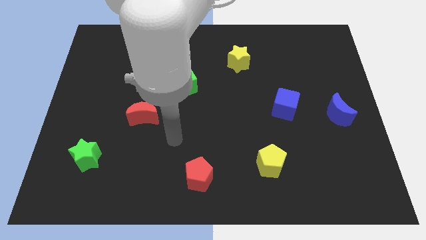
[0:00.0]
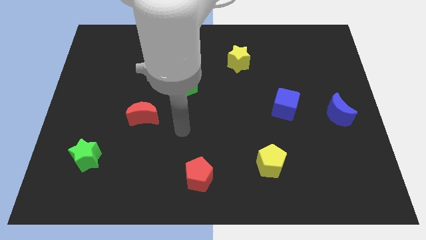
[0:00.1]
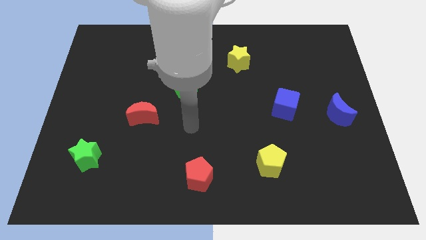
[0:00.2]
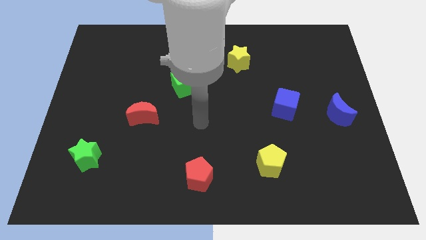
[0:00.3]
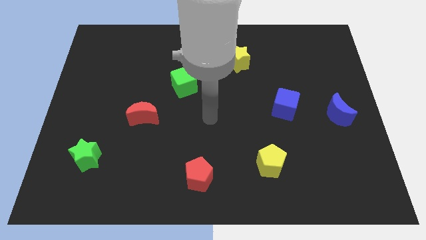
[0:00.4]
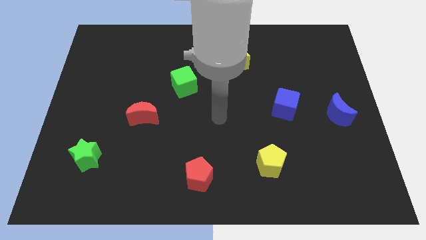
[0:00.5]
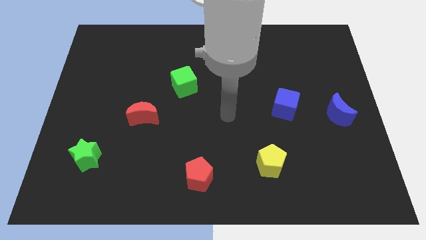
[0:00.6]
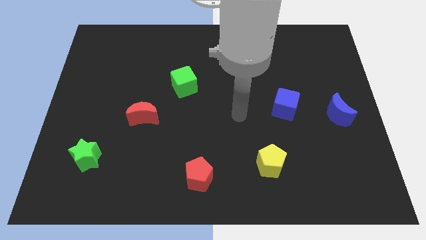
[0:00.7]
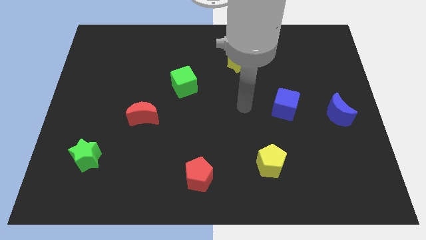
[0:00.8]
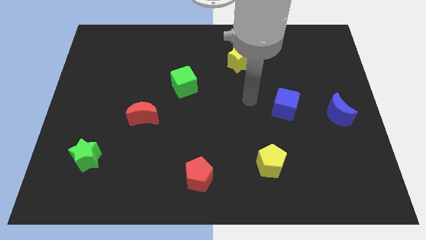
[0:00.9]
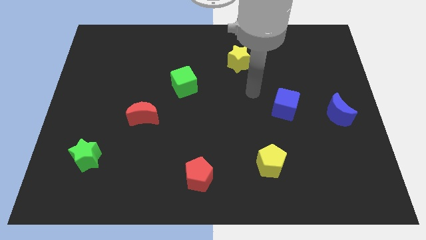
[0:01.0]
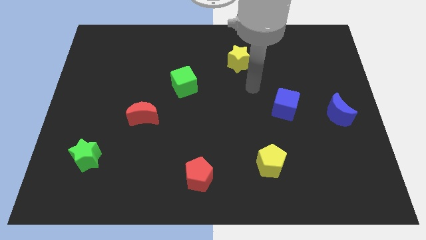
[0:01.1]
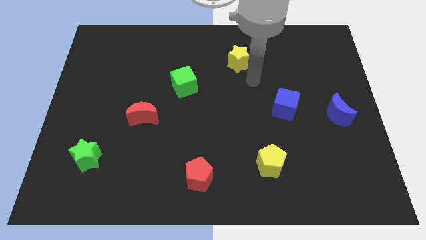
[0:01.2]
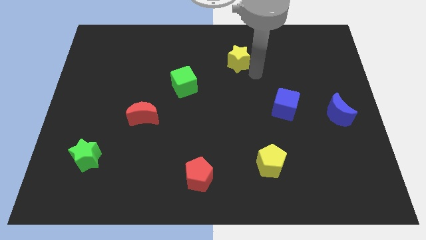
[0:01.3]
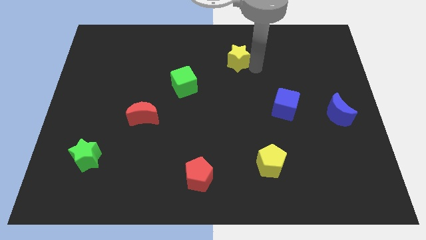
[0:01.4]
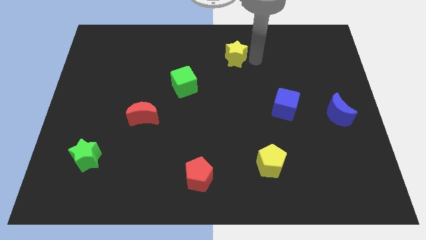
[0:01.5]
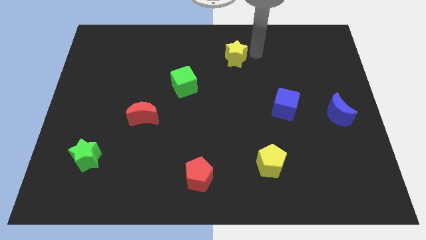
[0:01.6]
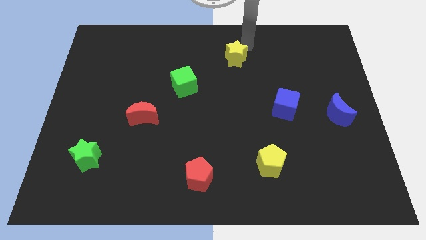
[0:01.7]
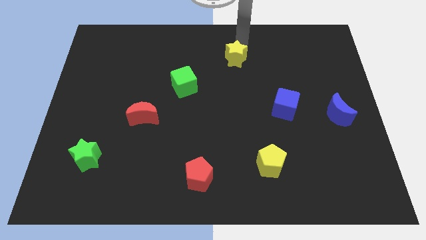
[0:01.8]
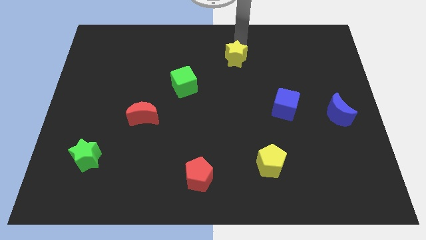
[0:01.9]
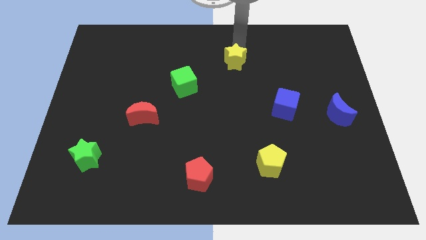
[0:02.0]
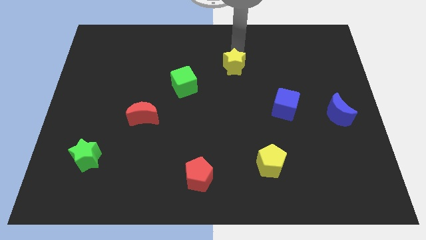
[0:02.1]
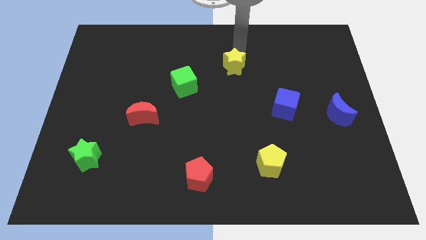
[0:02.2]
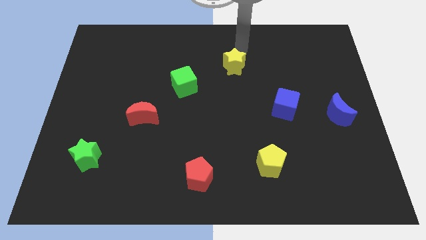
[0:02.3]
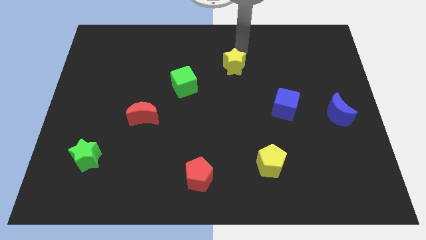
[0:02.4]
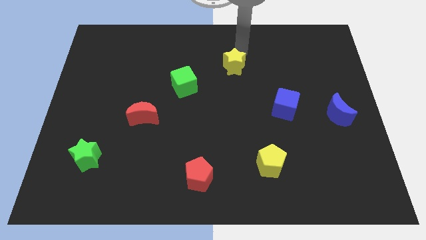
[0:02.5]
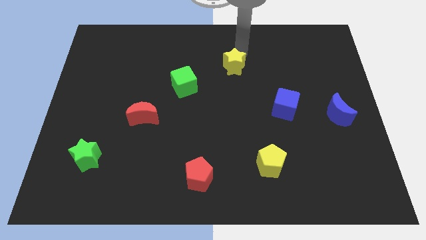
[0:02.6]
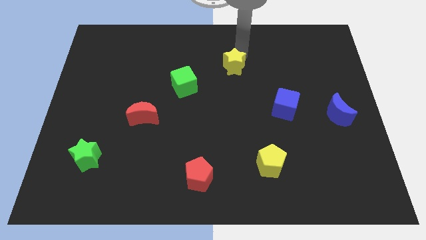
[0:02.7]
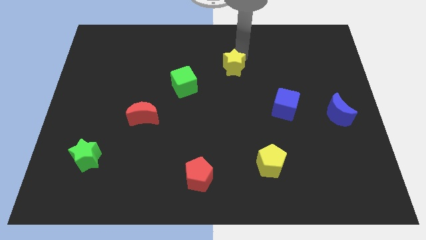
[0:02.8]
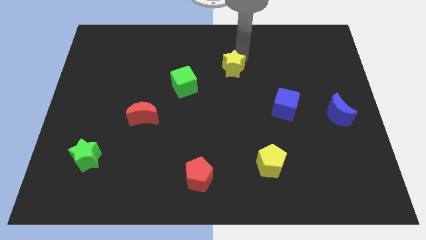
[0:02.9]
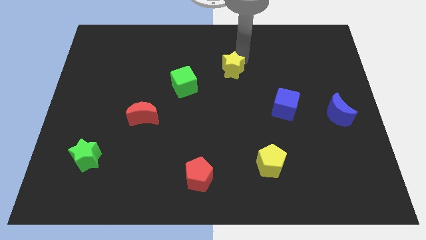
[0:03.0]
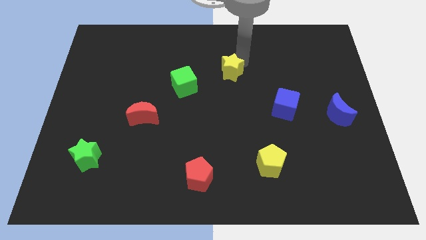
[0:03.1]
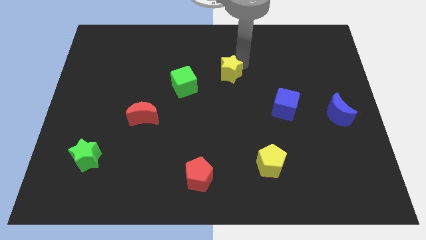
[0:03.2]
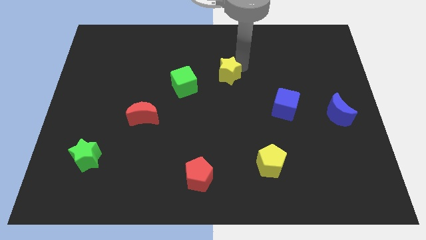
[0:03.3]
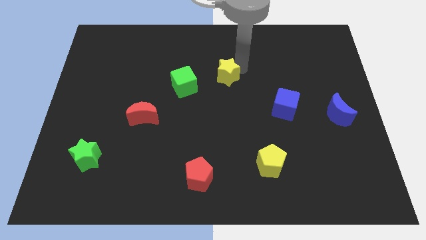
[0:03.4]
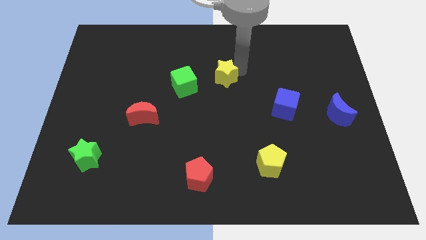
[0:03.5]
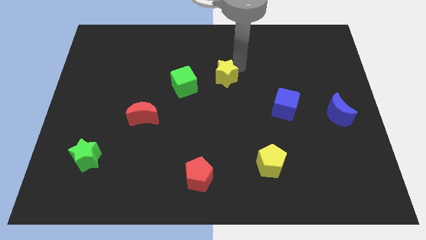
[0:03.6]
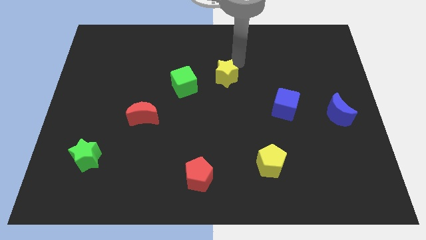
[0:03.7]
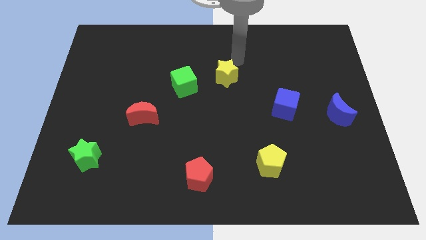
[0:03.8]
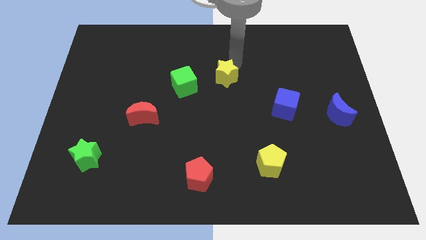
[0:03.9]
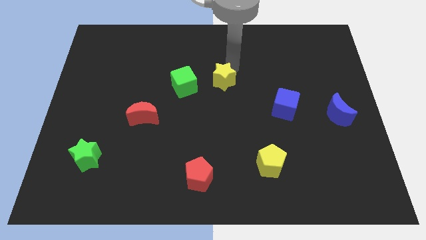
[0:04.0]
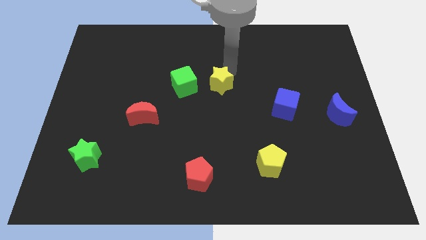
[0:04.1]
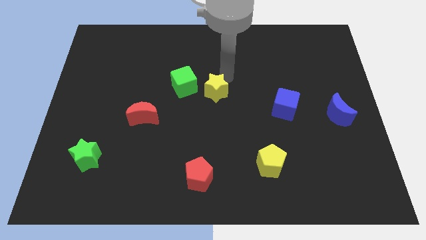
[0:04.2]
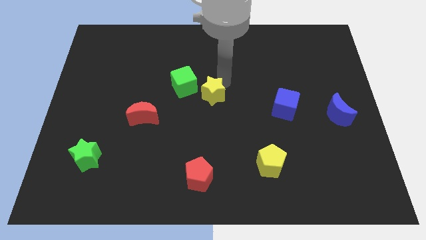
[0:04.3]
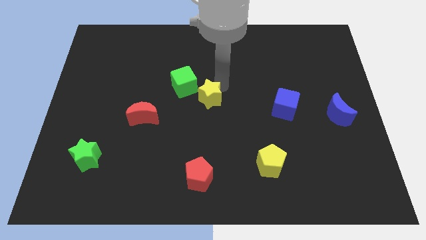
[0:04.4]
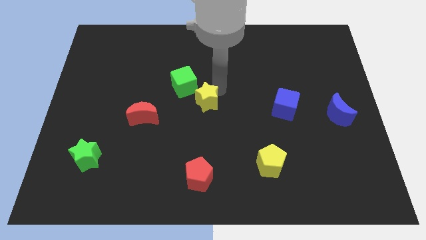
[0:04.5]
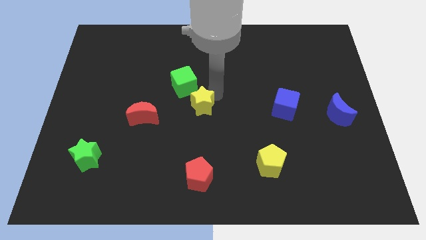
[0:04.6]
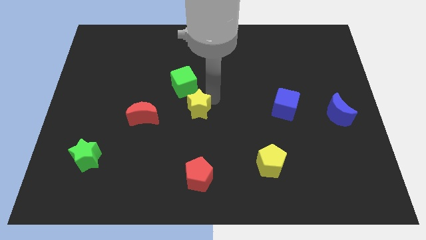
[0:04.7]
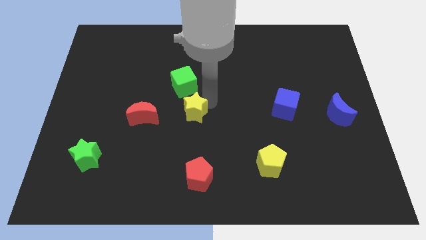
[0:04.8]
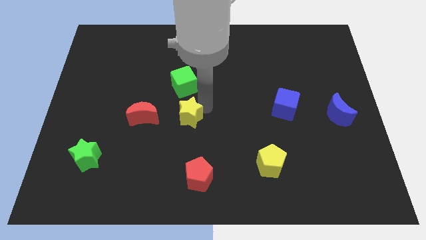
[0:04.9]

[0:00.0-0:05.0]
push the yellow star down and then to the left

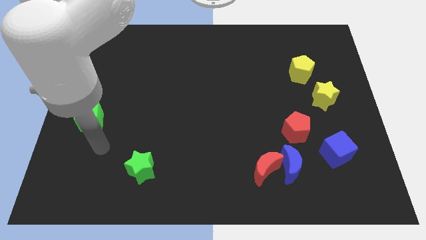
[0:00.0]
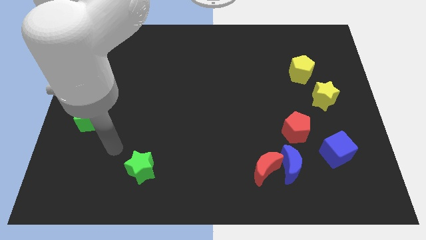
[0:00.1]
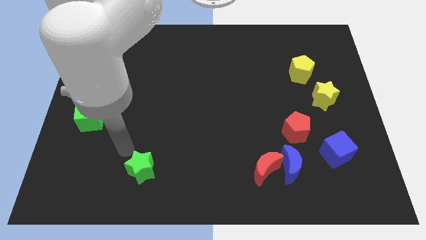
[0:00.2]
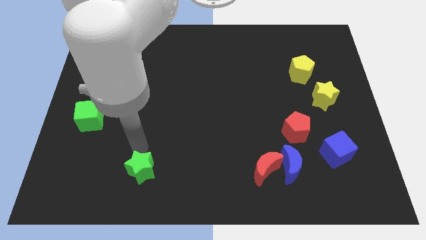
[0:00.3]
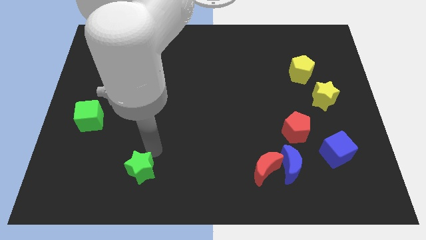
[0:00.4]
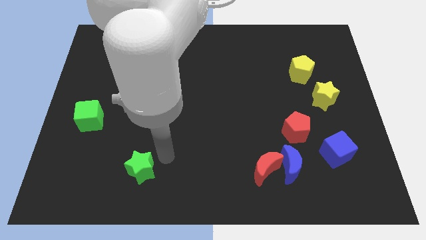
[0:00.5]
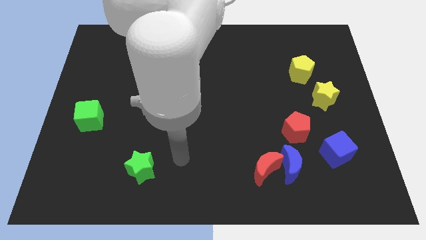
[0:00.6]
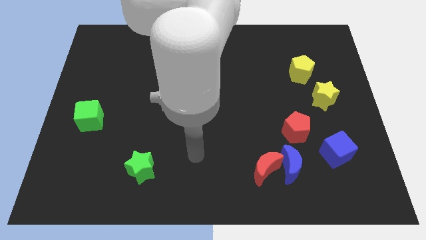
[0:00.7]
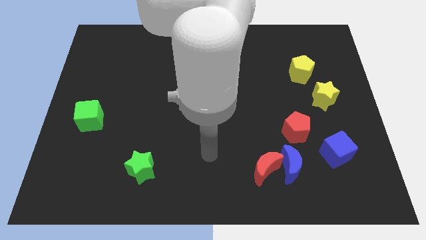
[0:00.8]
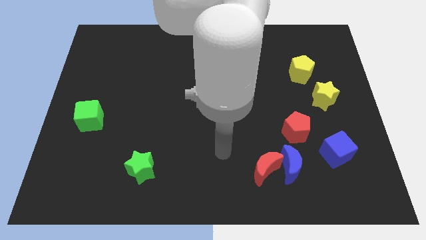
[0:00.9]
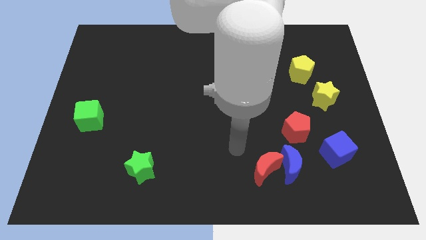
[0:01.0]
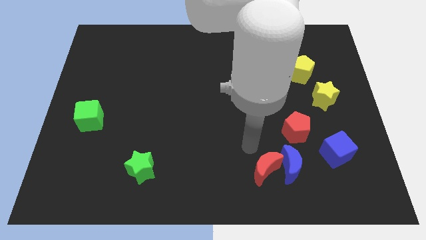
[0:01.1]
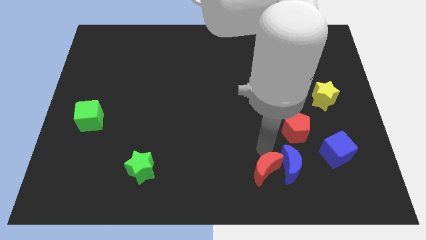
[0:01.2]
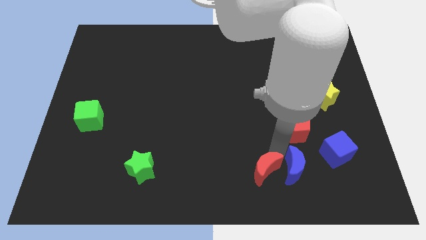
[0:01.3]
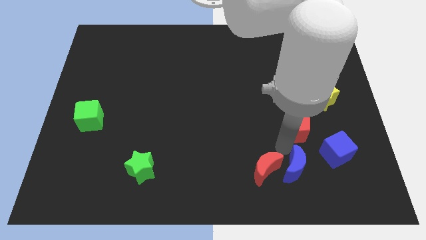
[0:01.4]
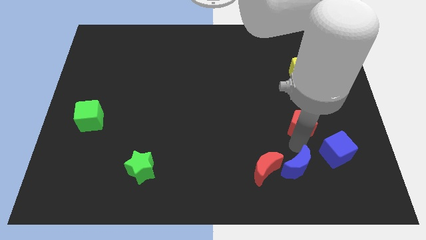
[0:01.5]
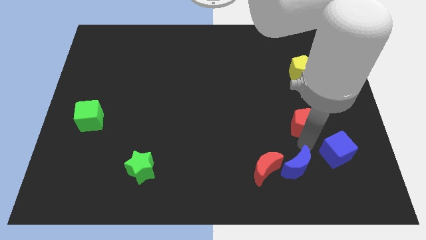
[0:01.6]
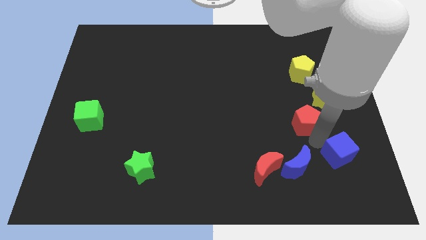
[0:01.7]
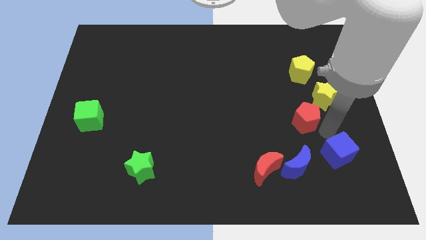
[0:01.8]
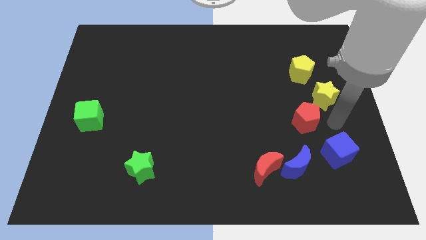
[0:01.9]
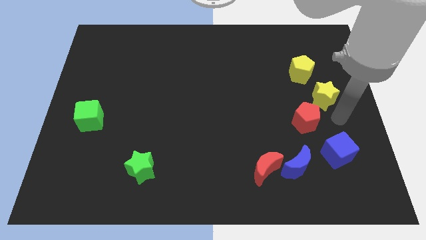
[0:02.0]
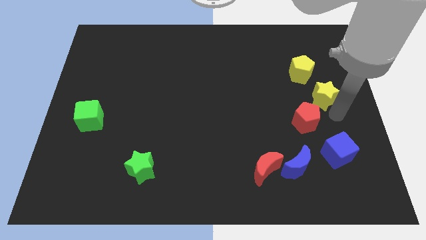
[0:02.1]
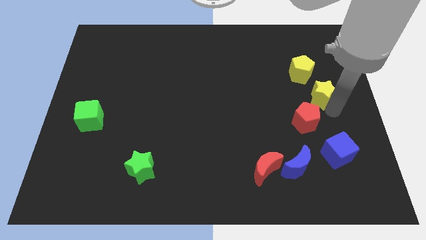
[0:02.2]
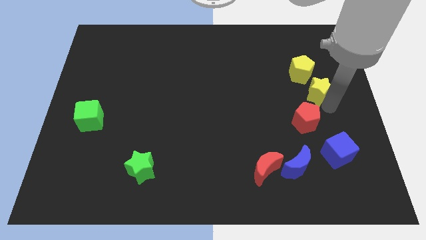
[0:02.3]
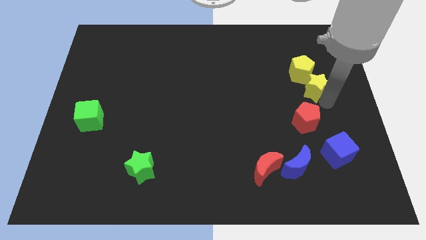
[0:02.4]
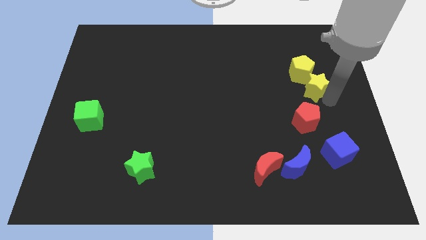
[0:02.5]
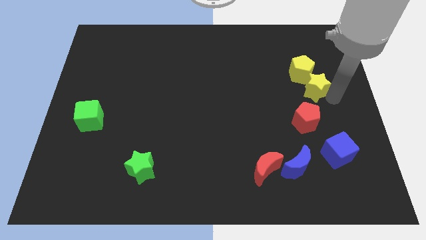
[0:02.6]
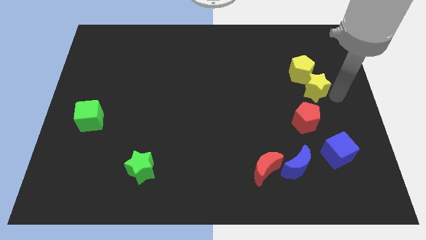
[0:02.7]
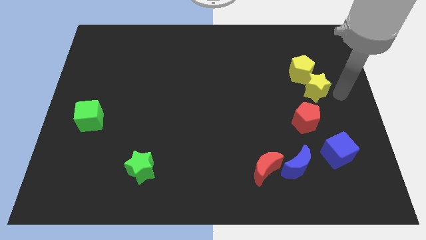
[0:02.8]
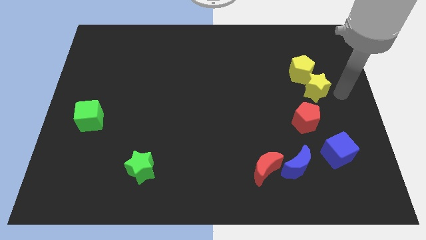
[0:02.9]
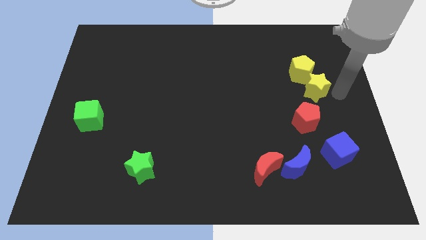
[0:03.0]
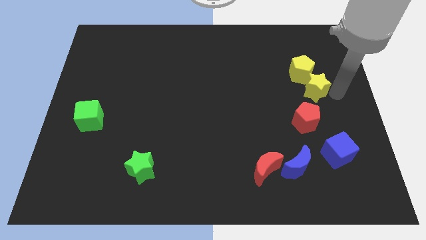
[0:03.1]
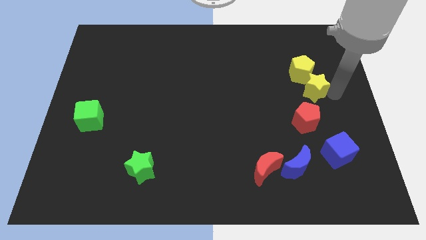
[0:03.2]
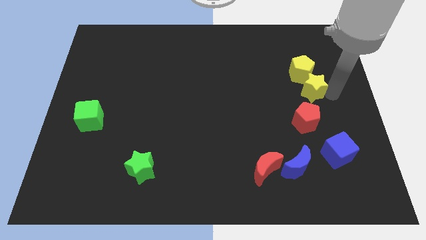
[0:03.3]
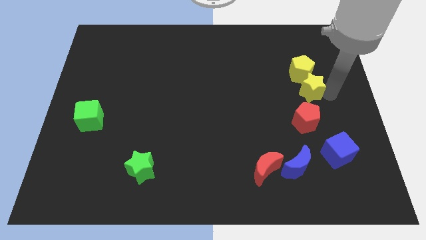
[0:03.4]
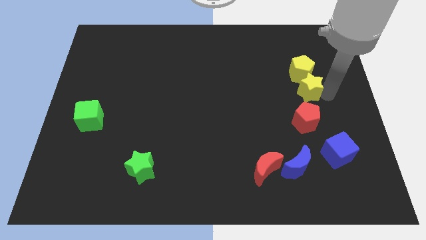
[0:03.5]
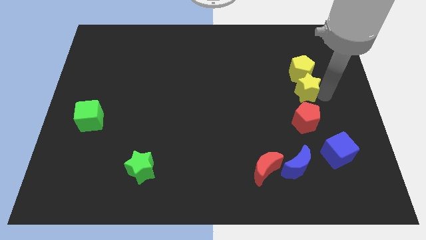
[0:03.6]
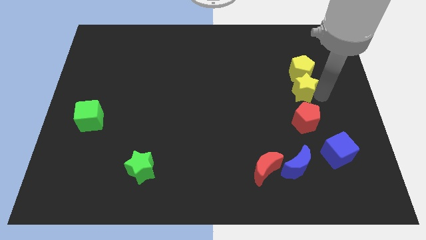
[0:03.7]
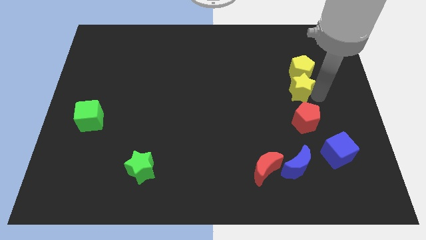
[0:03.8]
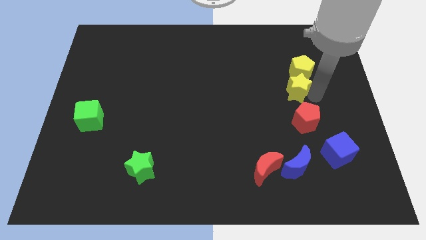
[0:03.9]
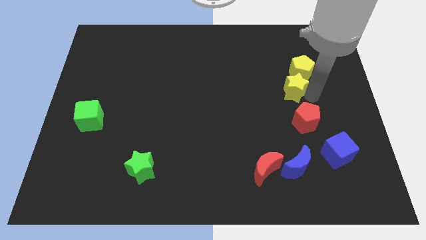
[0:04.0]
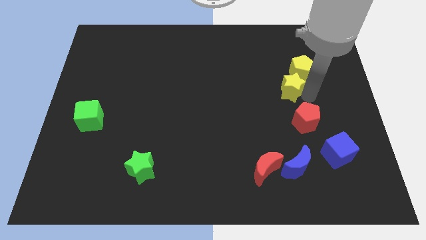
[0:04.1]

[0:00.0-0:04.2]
push the yellow star a little upwards and then left
